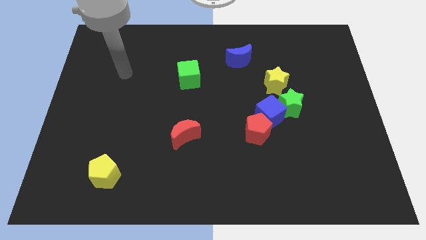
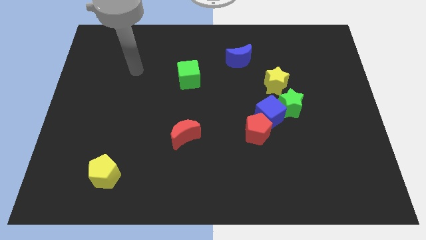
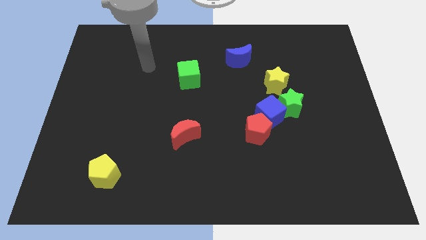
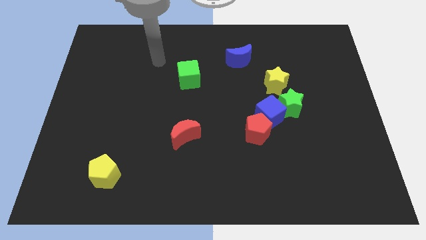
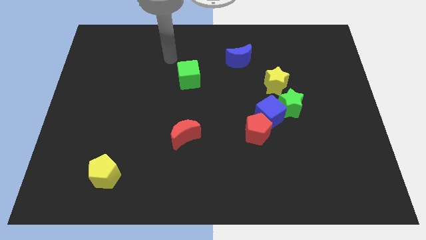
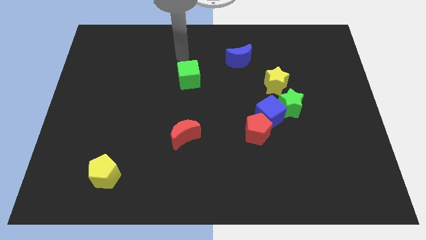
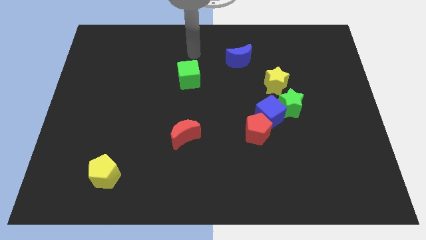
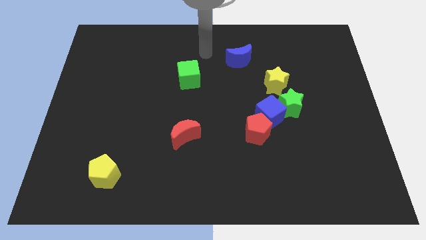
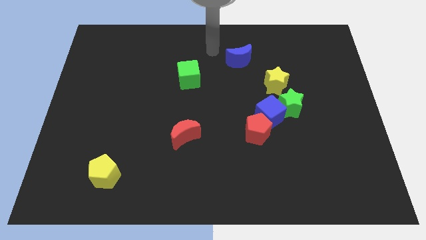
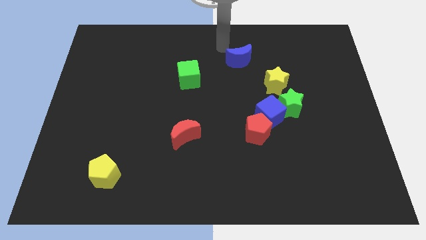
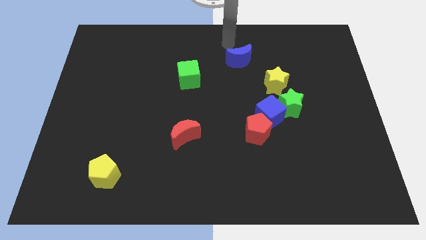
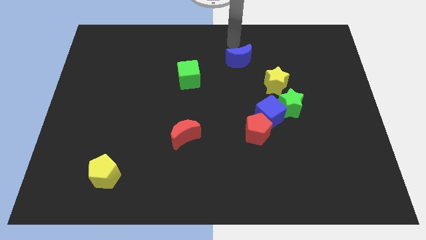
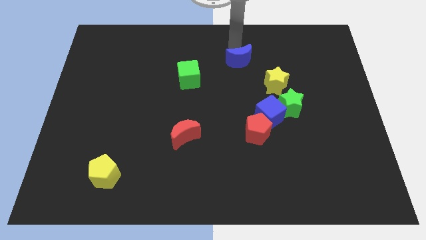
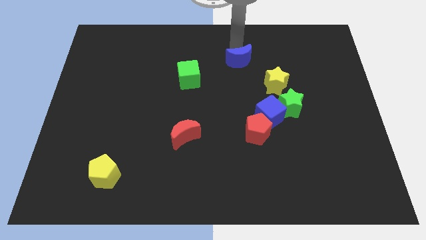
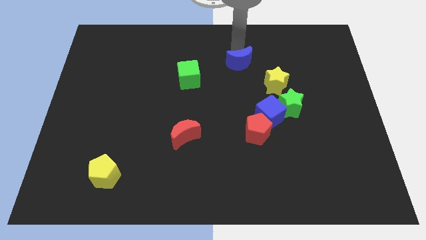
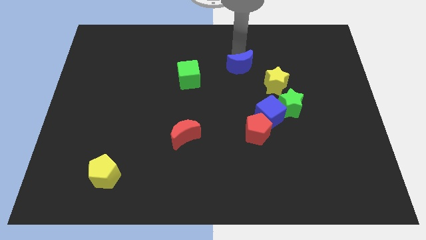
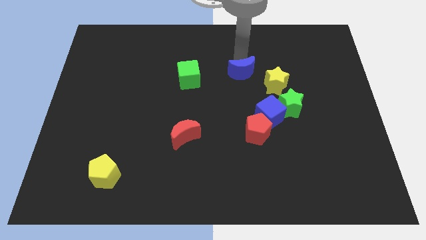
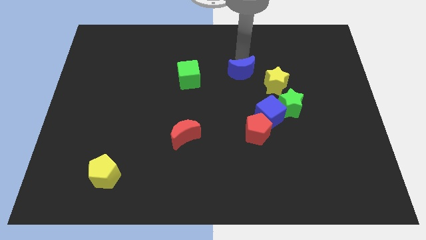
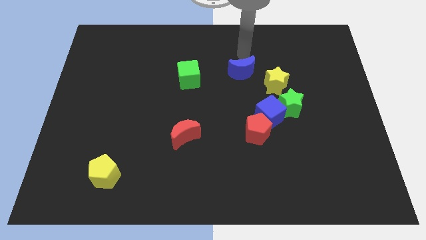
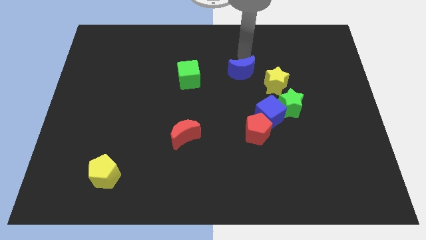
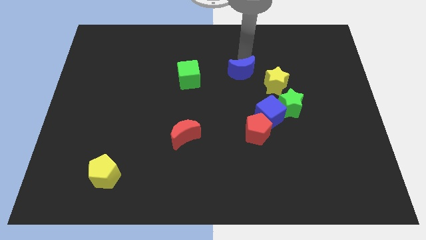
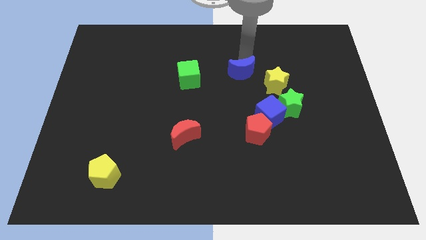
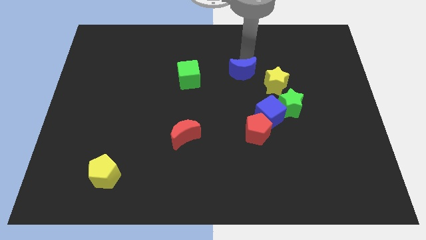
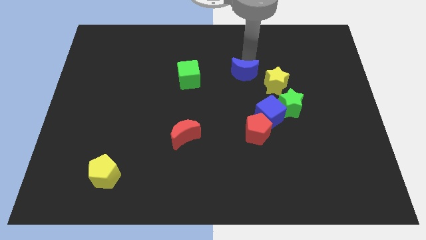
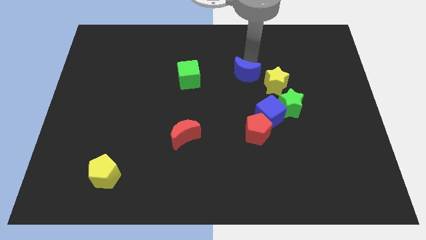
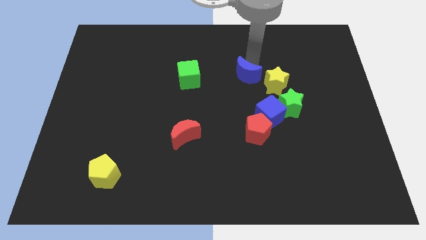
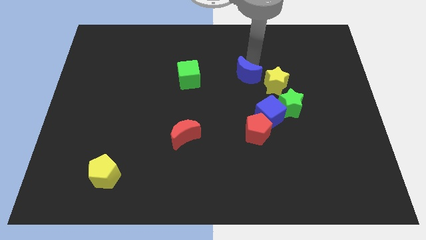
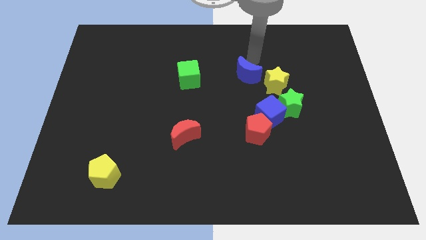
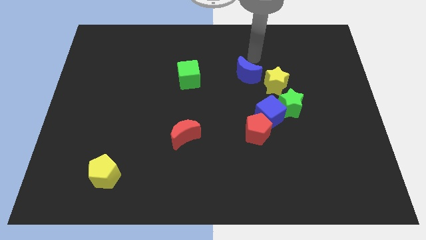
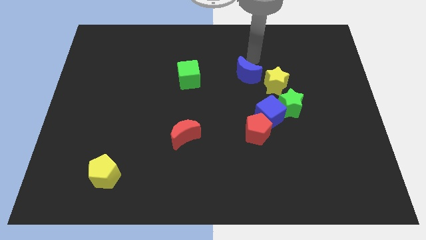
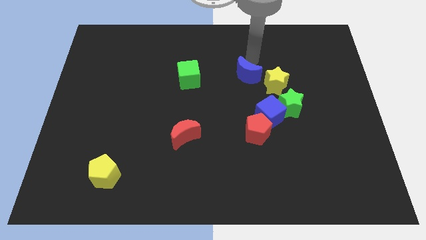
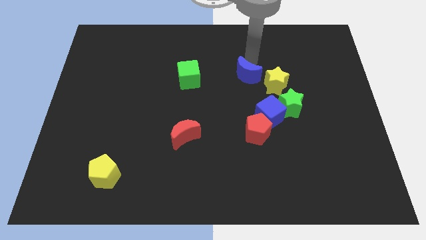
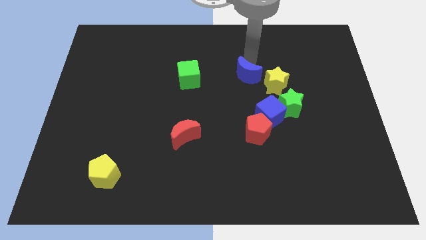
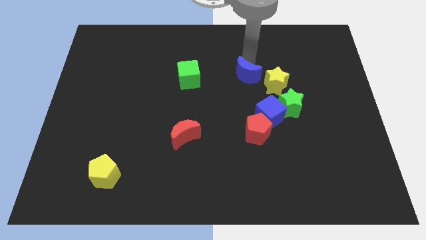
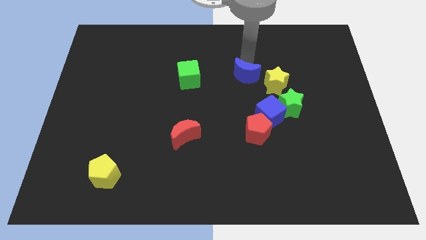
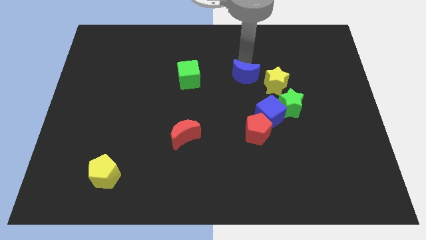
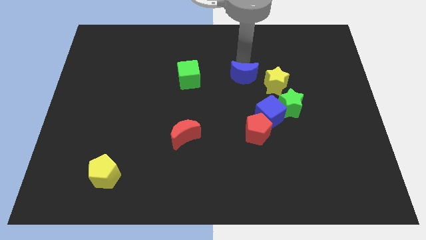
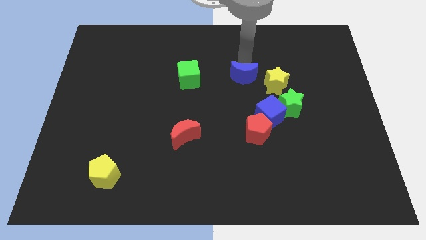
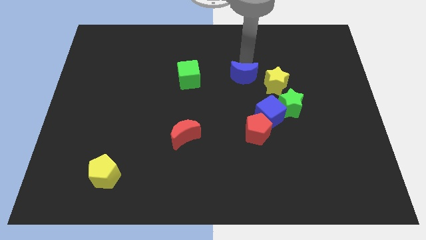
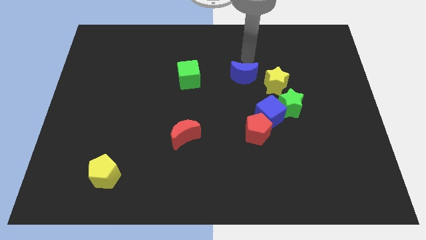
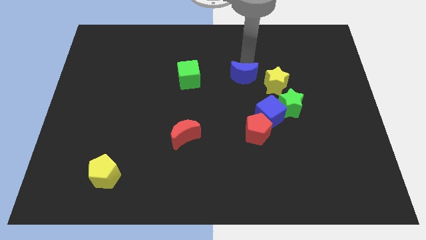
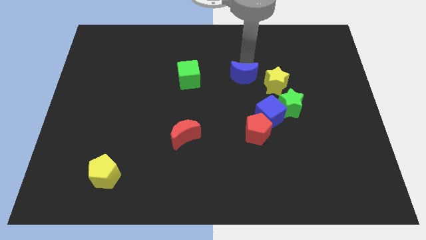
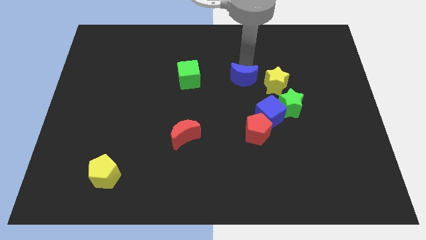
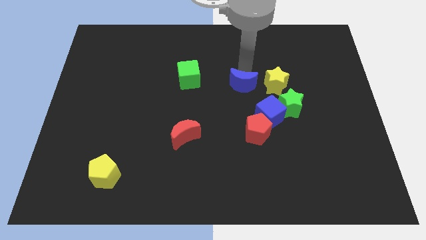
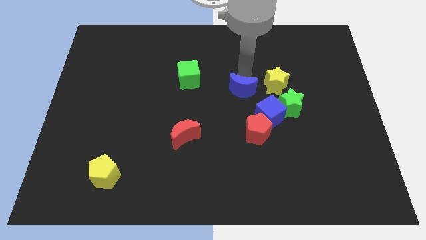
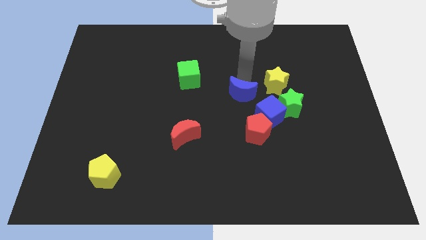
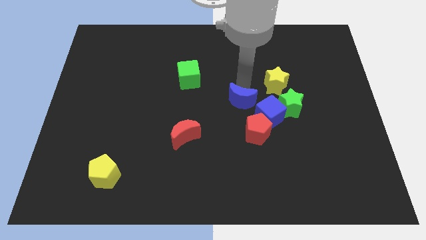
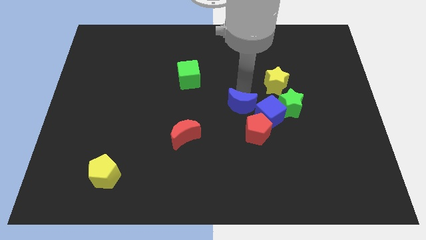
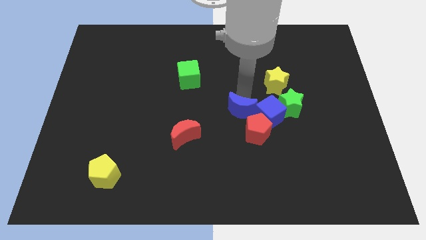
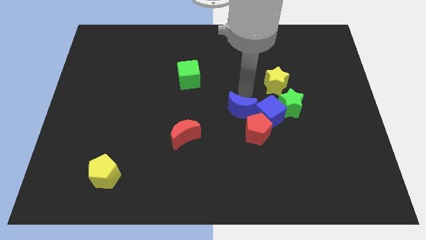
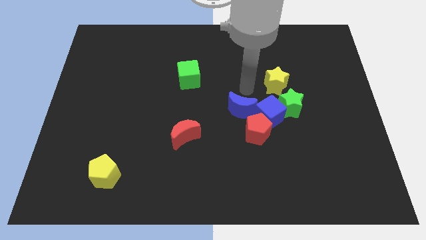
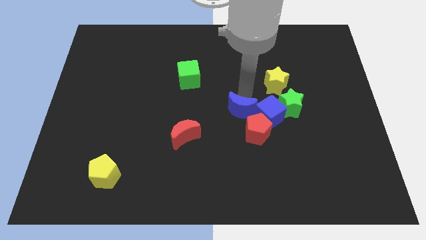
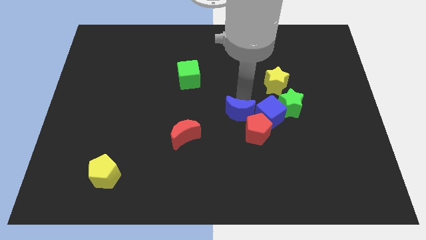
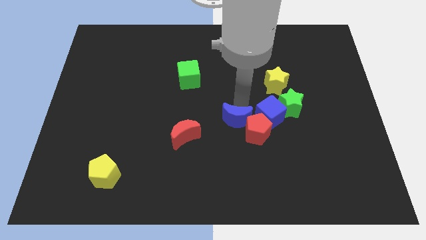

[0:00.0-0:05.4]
push the blue moon to the bottom left of the blue cube

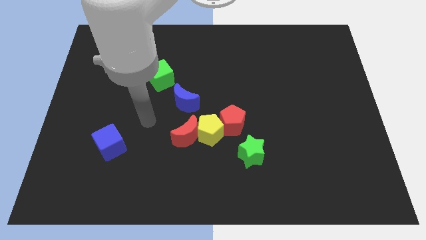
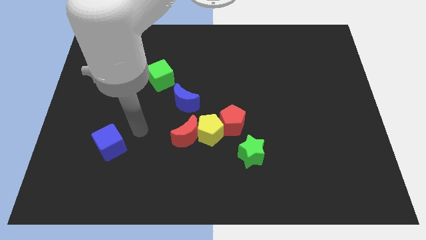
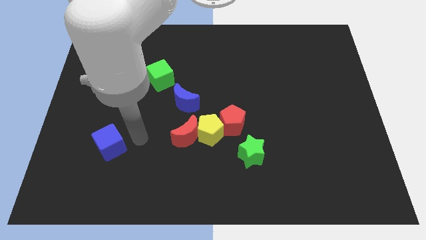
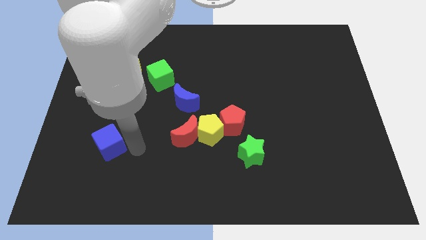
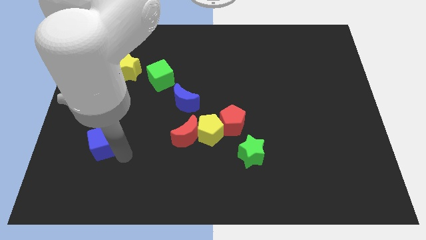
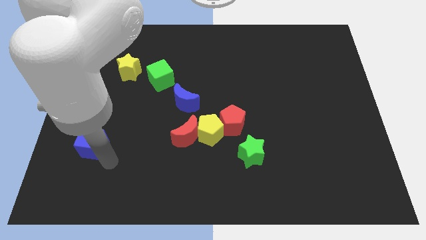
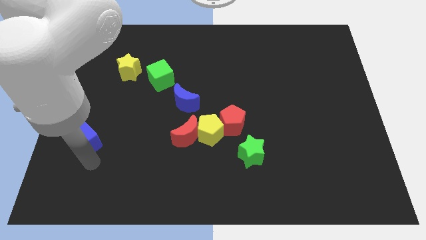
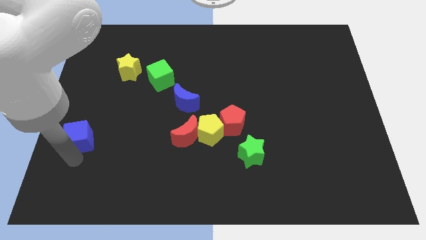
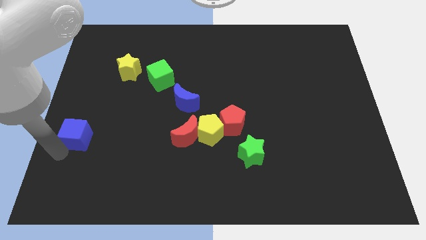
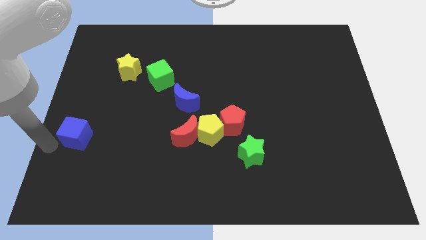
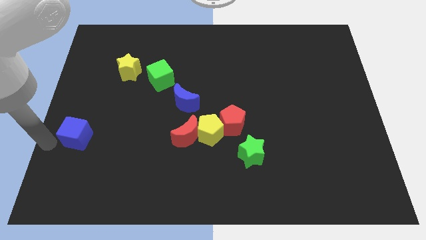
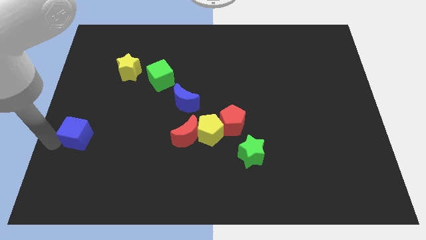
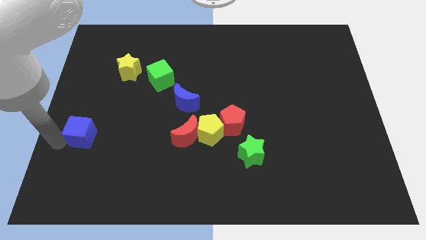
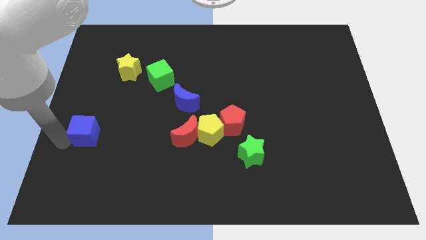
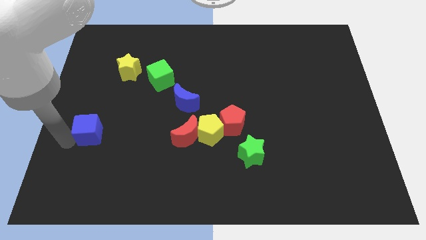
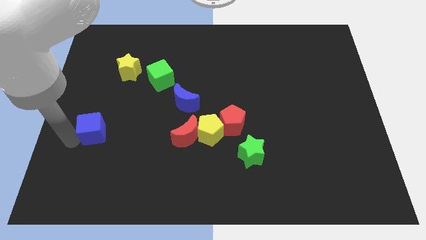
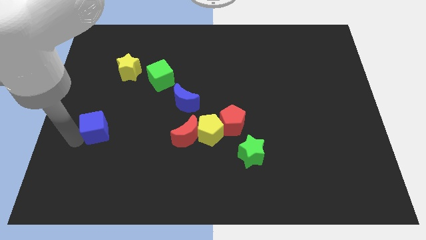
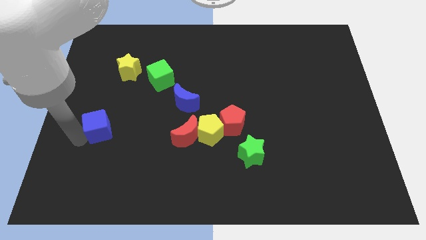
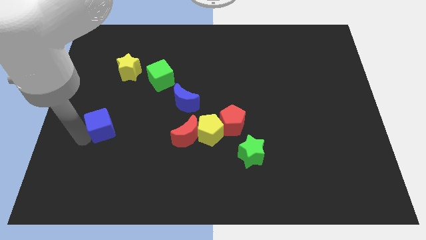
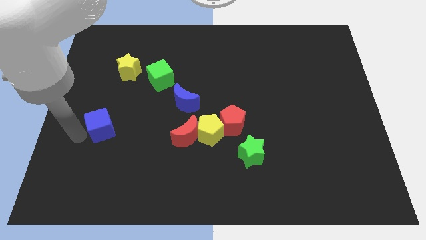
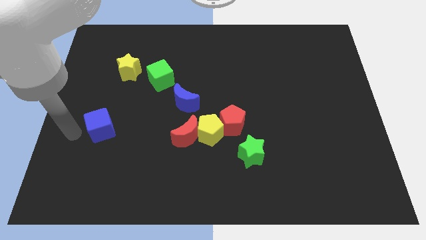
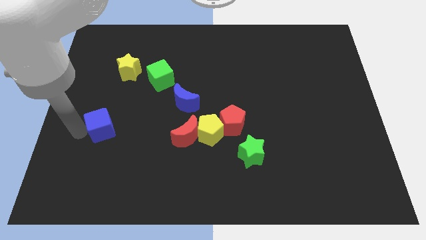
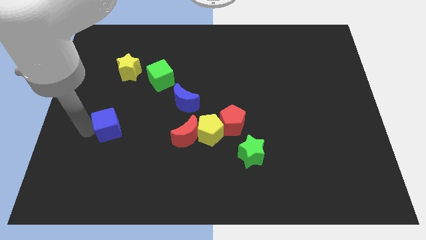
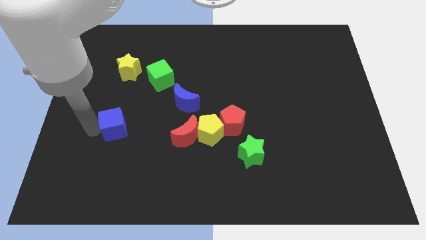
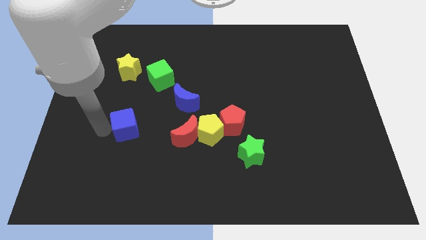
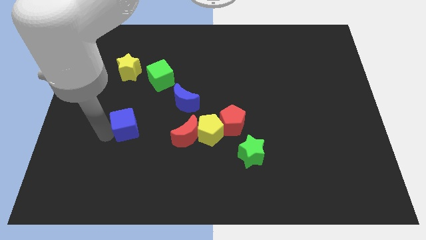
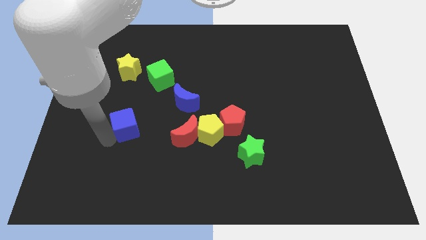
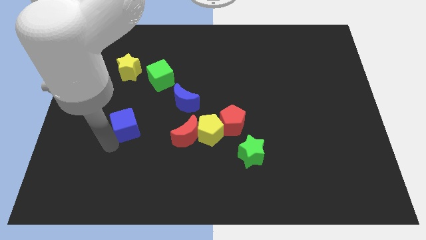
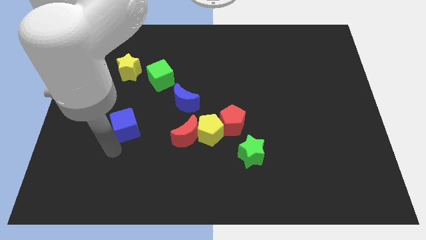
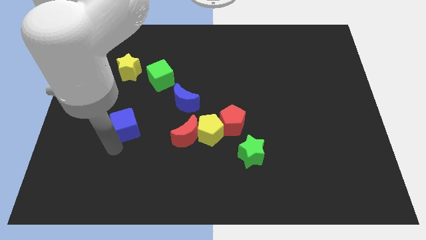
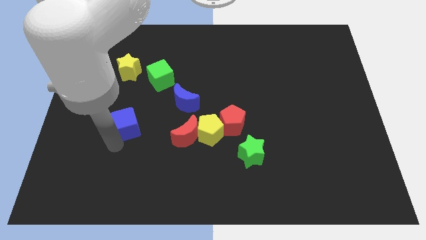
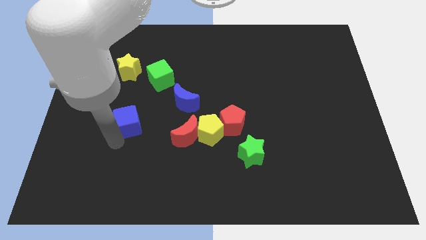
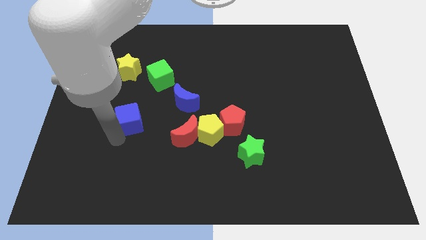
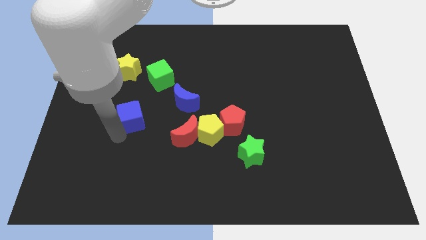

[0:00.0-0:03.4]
put the blue cube left of the blue moon
